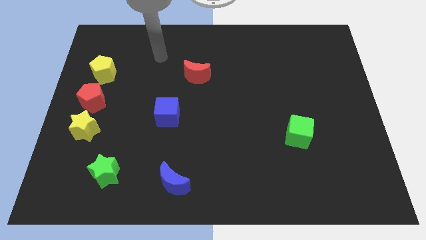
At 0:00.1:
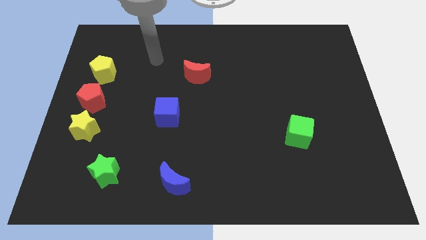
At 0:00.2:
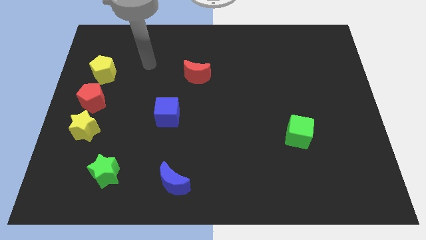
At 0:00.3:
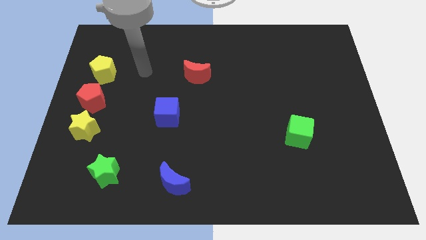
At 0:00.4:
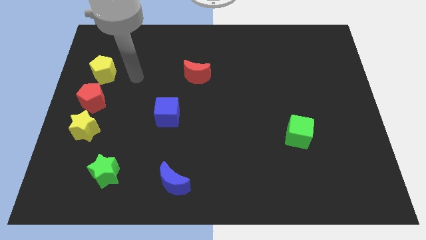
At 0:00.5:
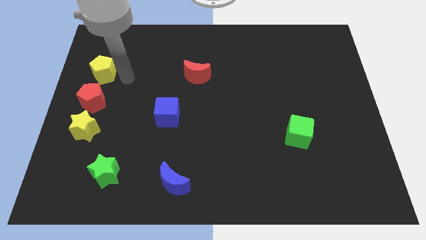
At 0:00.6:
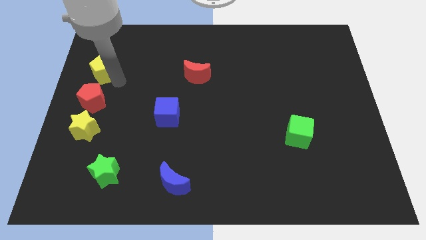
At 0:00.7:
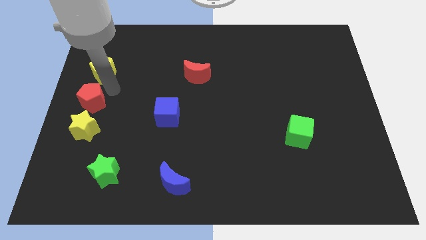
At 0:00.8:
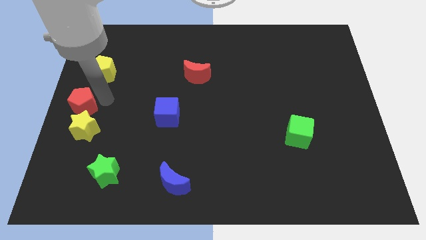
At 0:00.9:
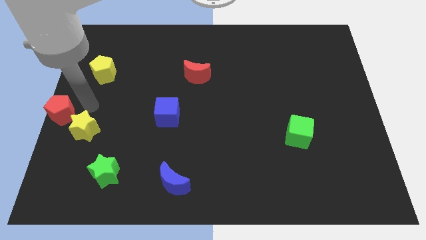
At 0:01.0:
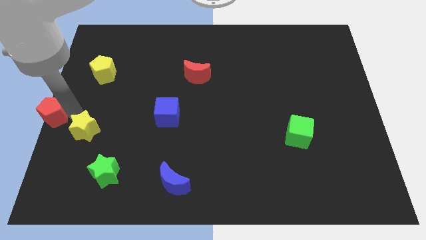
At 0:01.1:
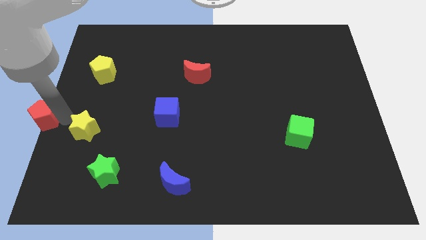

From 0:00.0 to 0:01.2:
pull the yellow star apart from the red pentagon

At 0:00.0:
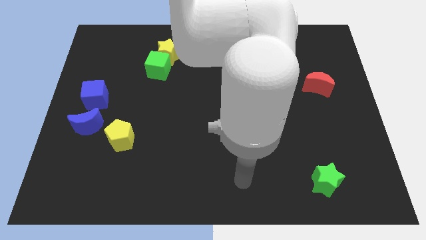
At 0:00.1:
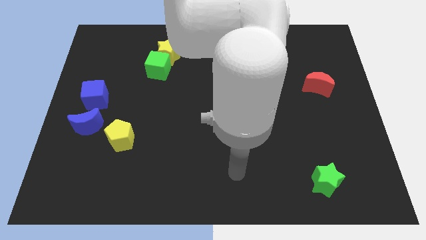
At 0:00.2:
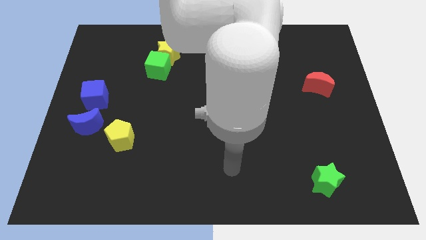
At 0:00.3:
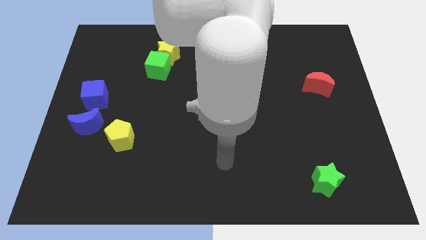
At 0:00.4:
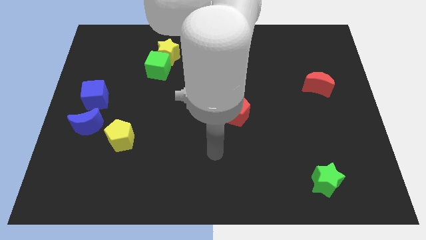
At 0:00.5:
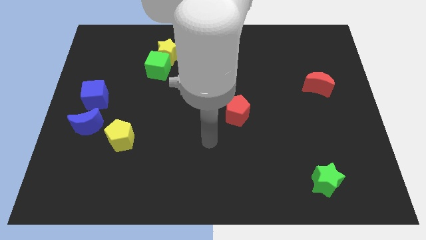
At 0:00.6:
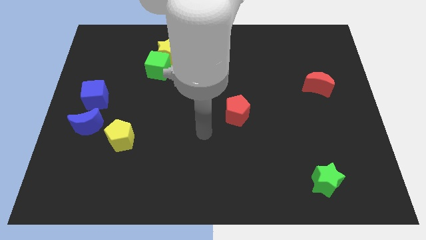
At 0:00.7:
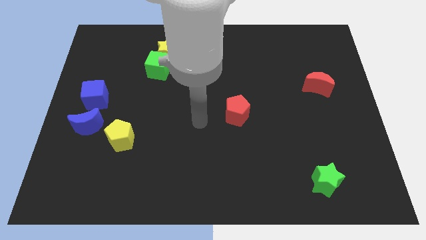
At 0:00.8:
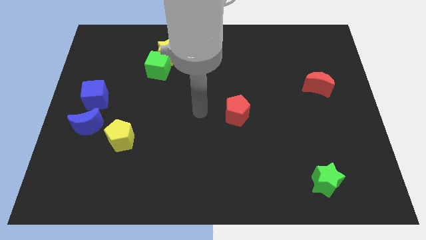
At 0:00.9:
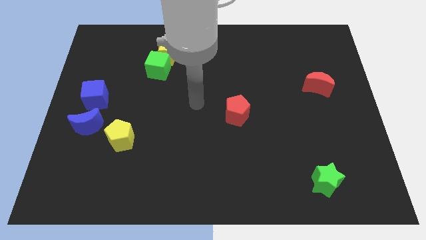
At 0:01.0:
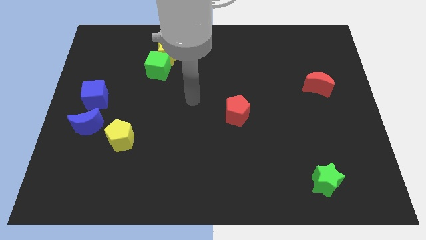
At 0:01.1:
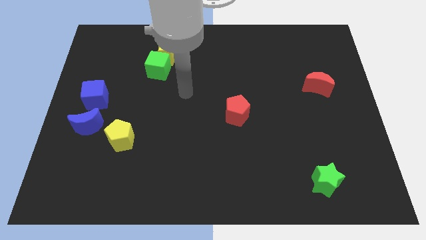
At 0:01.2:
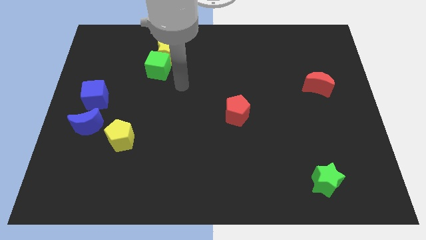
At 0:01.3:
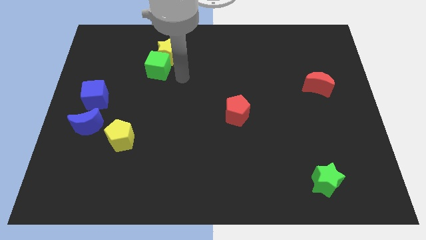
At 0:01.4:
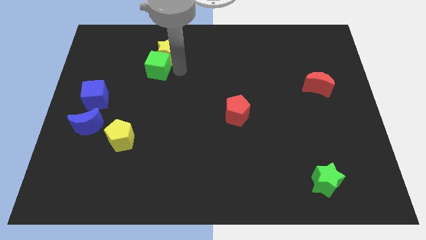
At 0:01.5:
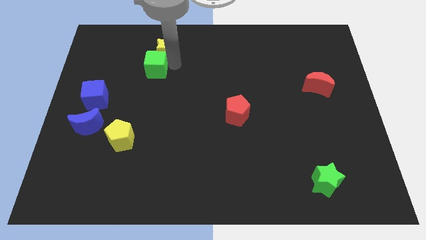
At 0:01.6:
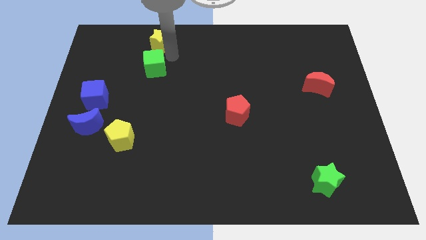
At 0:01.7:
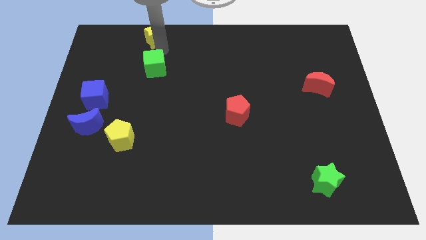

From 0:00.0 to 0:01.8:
move the green cube away from the yellow star

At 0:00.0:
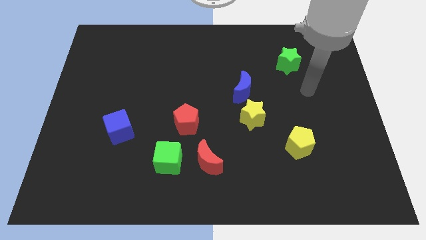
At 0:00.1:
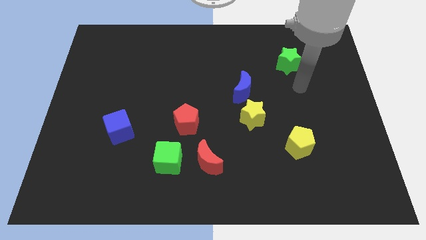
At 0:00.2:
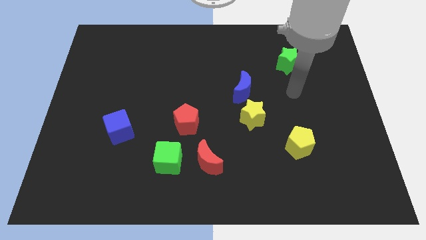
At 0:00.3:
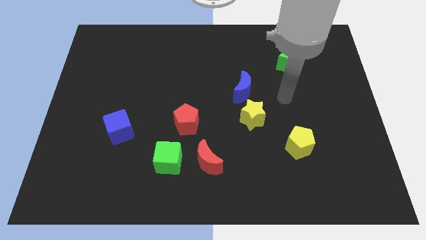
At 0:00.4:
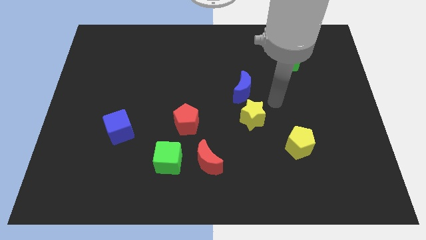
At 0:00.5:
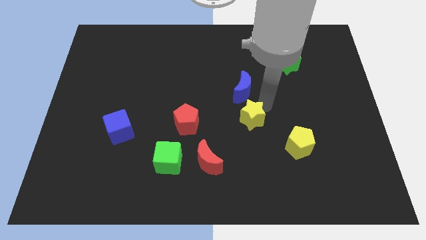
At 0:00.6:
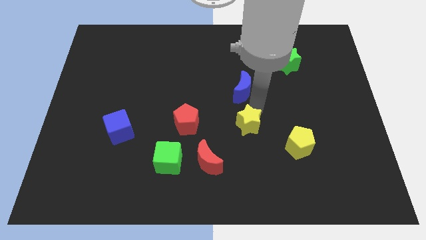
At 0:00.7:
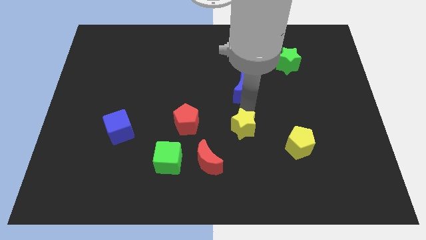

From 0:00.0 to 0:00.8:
separate the blue moon from the yellow star

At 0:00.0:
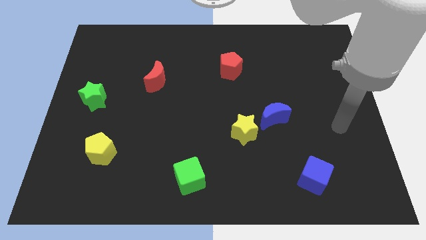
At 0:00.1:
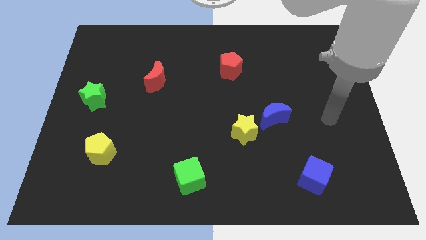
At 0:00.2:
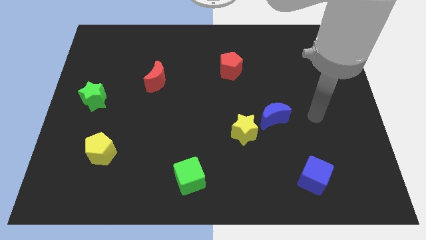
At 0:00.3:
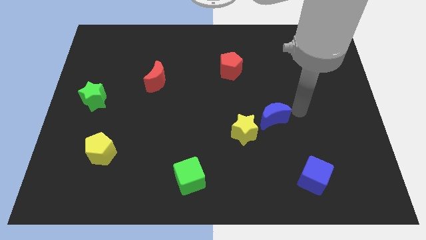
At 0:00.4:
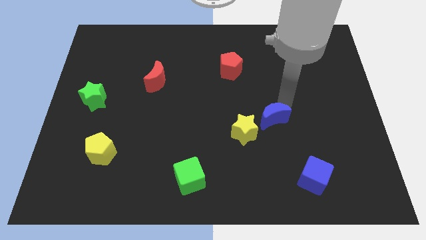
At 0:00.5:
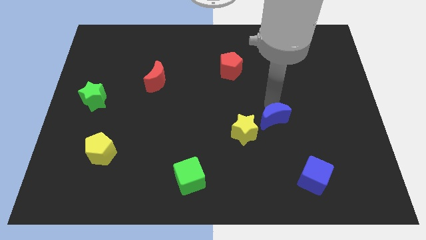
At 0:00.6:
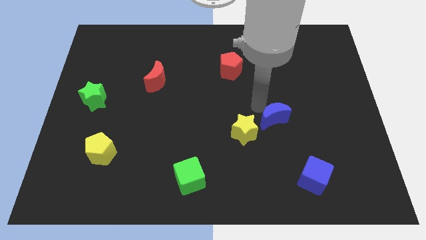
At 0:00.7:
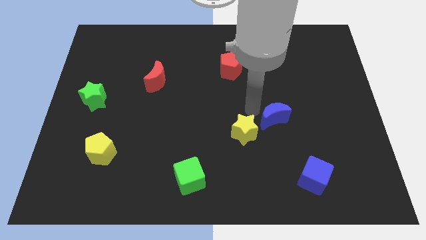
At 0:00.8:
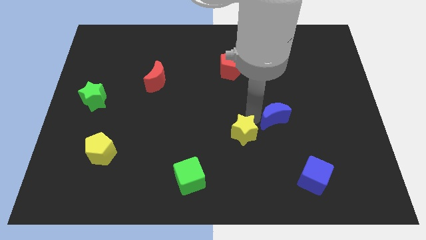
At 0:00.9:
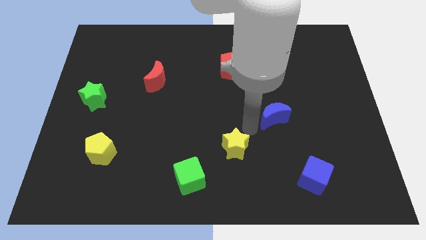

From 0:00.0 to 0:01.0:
move the blue moon away from the yellow star

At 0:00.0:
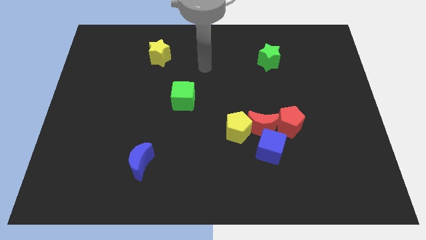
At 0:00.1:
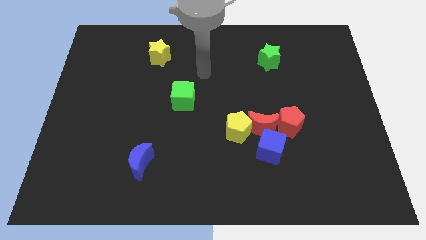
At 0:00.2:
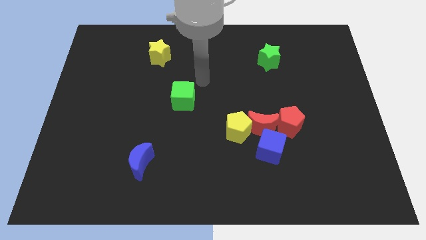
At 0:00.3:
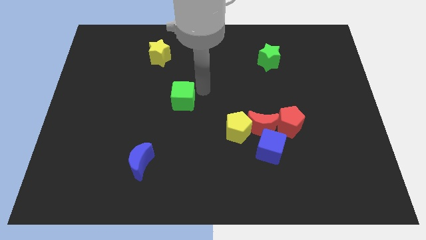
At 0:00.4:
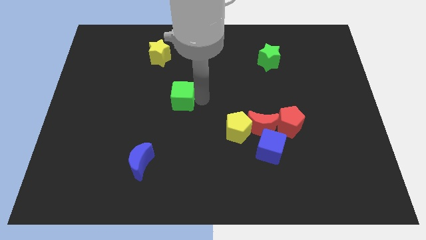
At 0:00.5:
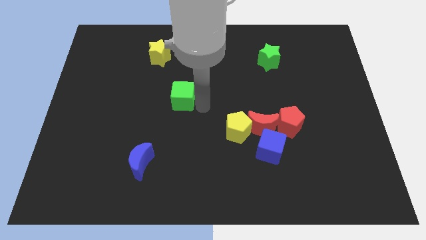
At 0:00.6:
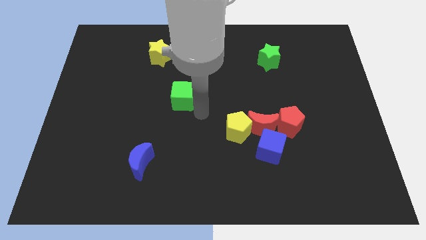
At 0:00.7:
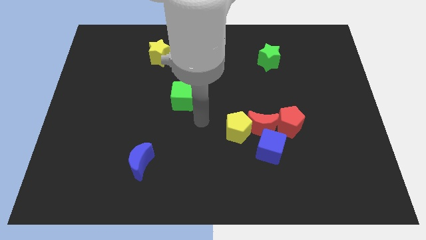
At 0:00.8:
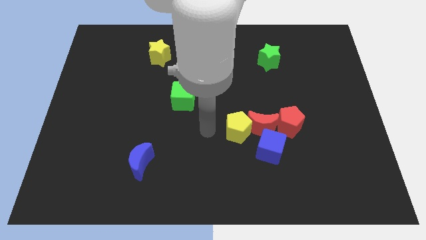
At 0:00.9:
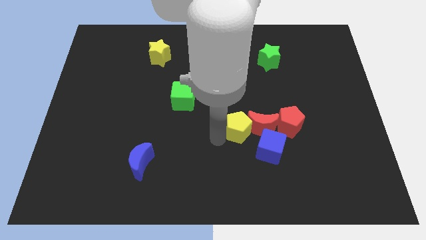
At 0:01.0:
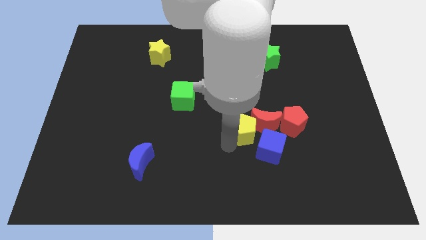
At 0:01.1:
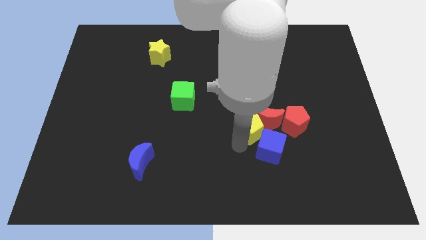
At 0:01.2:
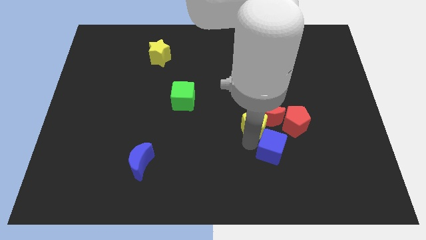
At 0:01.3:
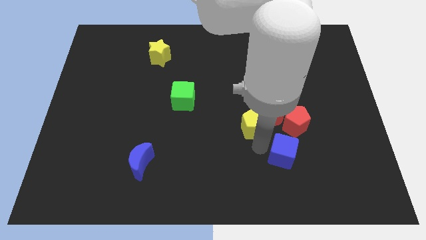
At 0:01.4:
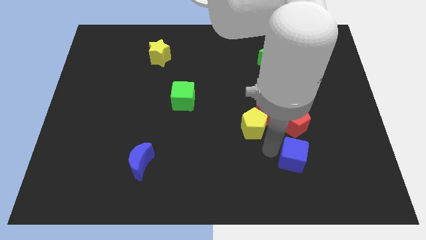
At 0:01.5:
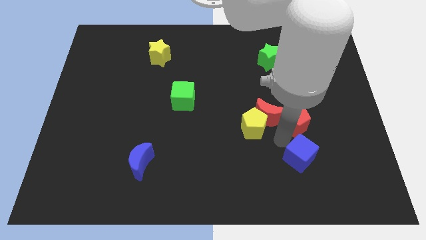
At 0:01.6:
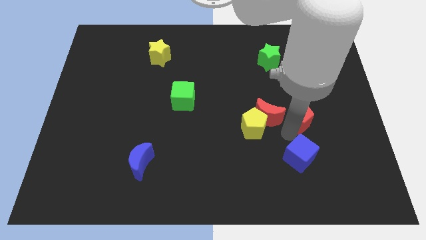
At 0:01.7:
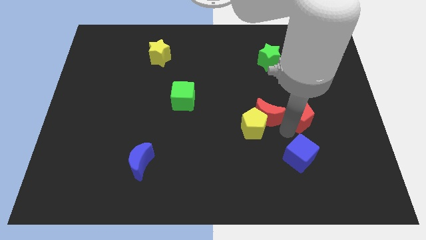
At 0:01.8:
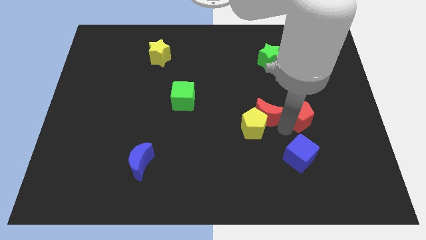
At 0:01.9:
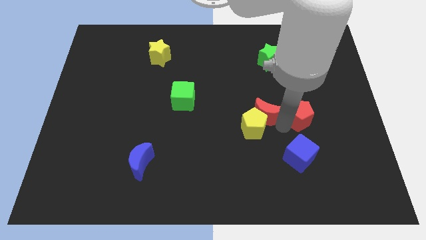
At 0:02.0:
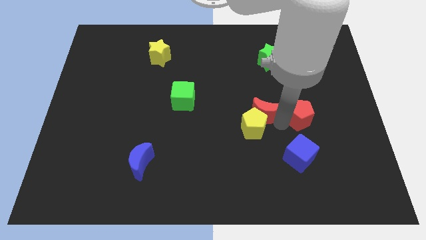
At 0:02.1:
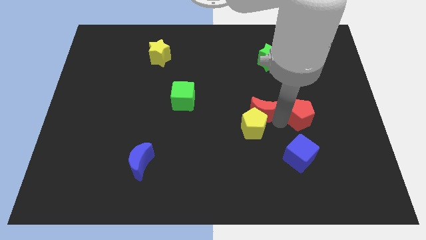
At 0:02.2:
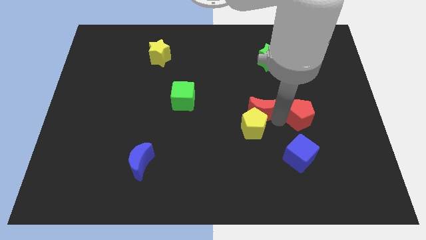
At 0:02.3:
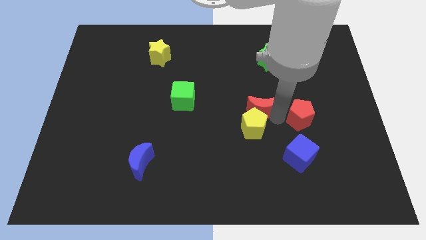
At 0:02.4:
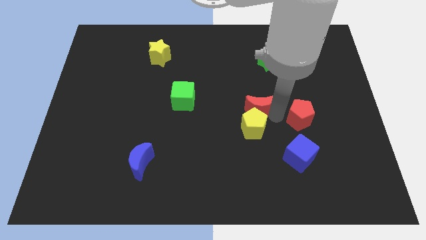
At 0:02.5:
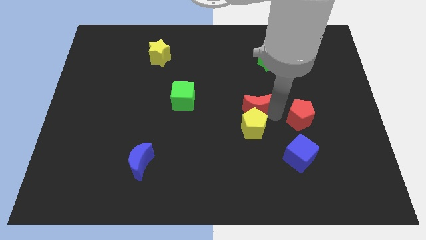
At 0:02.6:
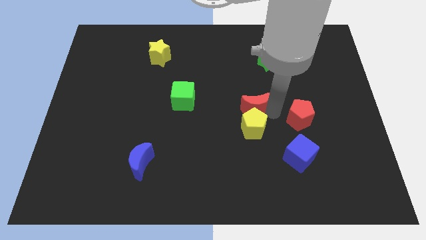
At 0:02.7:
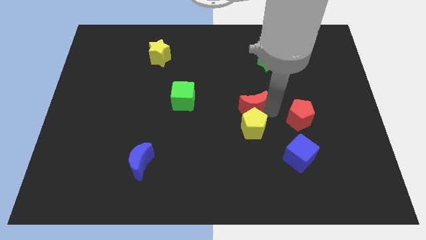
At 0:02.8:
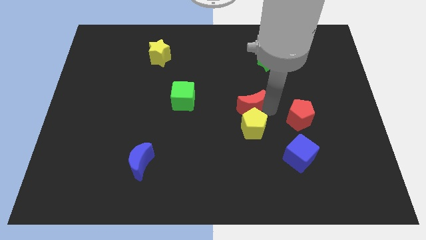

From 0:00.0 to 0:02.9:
move the red moon away from the clump

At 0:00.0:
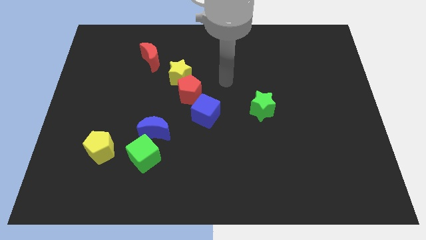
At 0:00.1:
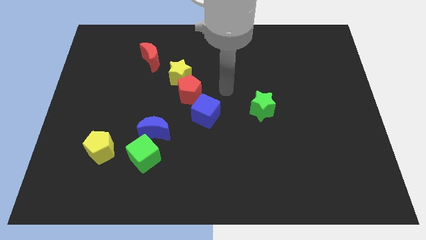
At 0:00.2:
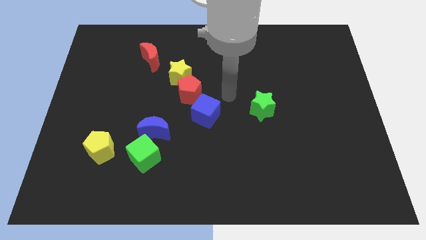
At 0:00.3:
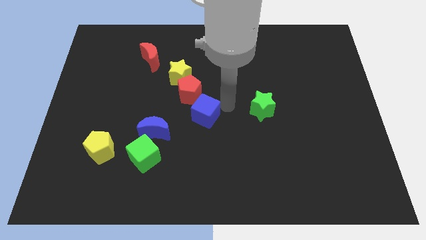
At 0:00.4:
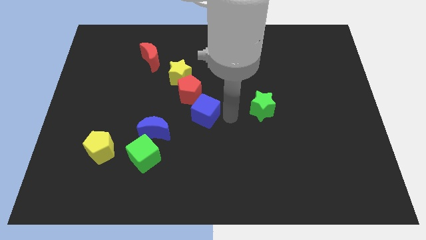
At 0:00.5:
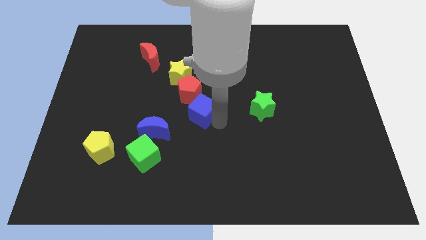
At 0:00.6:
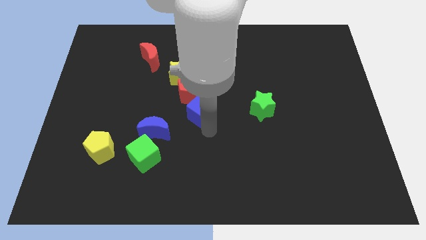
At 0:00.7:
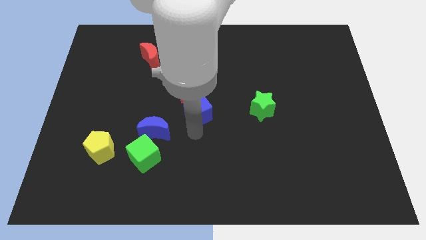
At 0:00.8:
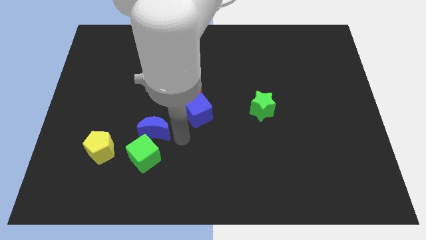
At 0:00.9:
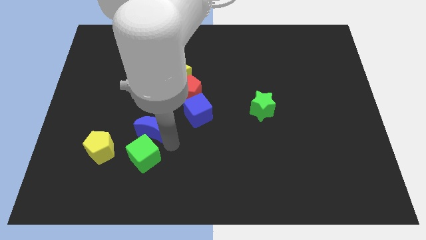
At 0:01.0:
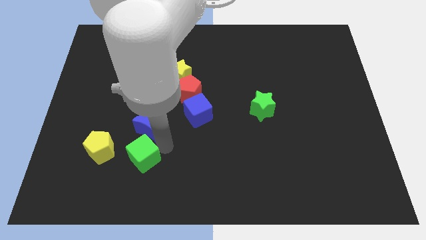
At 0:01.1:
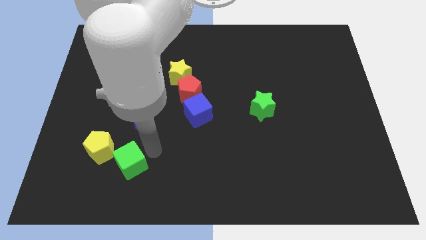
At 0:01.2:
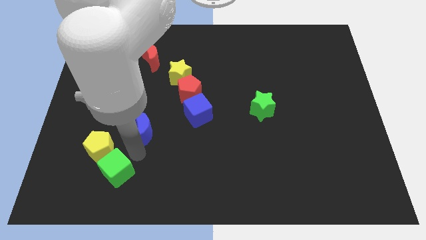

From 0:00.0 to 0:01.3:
move the blue moon away from the green cube

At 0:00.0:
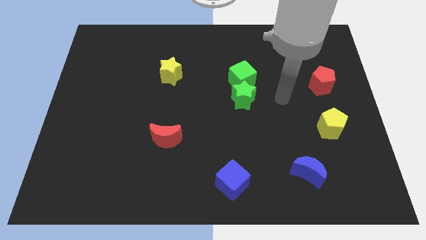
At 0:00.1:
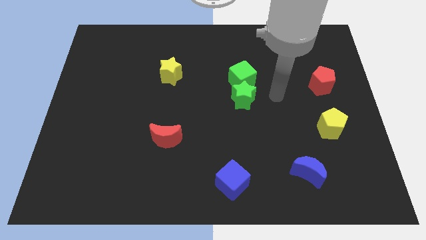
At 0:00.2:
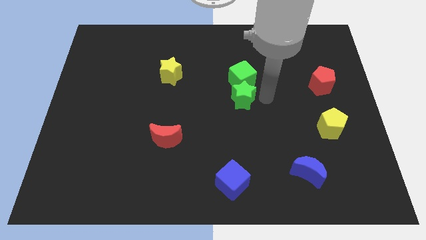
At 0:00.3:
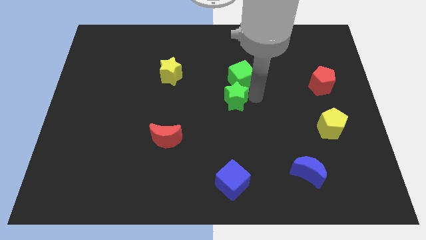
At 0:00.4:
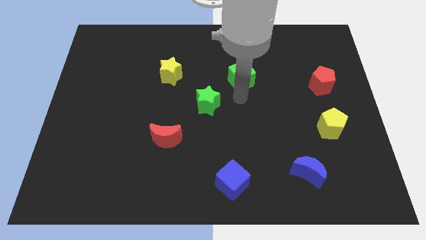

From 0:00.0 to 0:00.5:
pull the green cube apart from the green star
